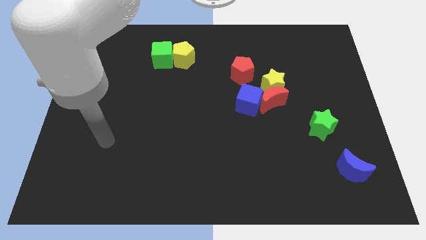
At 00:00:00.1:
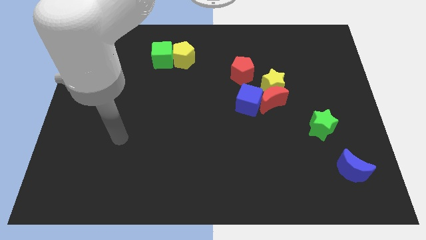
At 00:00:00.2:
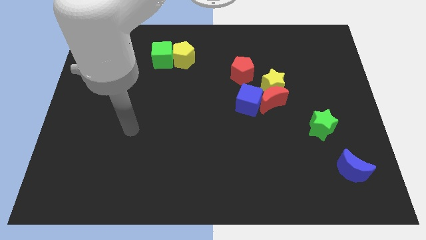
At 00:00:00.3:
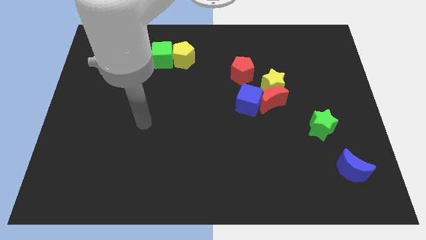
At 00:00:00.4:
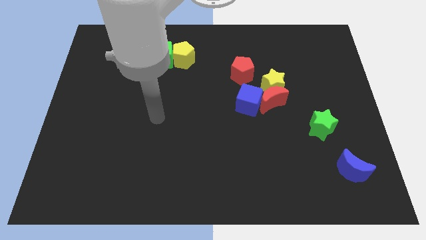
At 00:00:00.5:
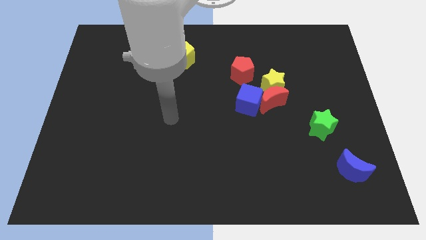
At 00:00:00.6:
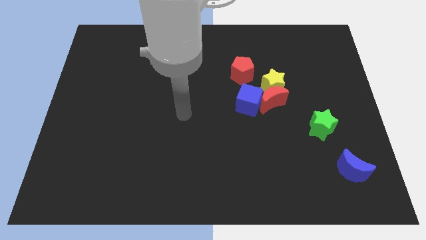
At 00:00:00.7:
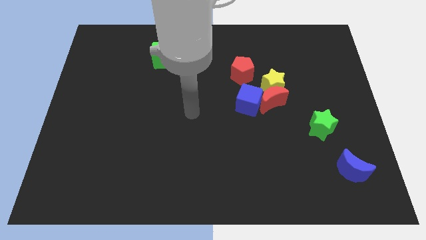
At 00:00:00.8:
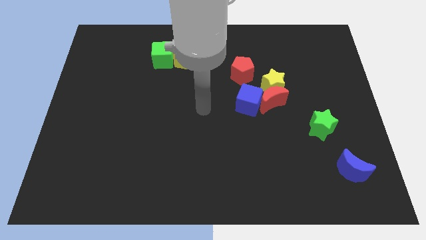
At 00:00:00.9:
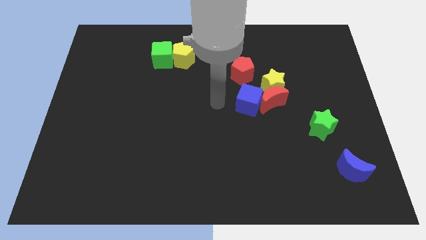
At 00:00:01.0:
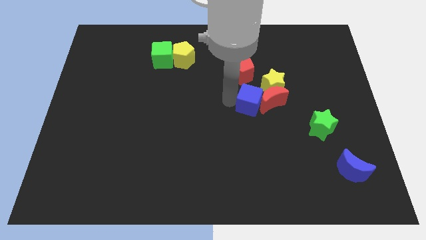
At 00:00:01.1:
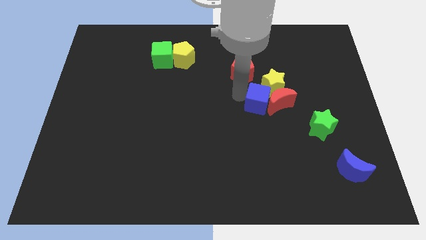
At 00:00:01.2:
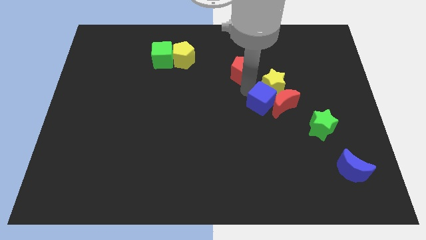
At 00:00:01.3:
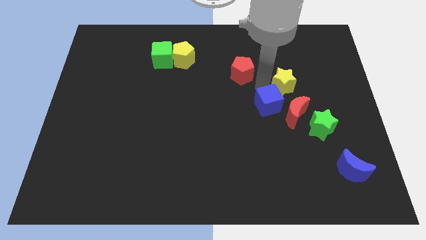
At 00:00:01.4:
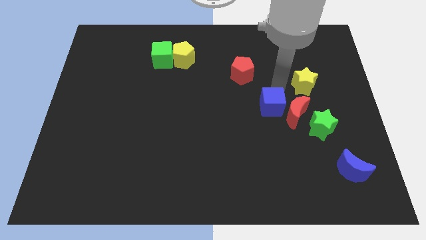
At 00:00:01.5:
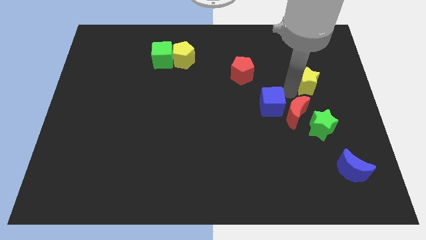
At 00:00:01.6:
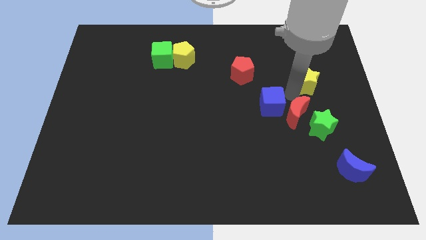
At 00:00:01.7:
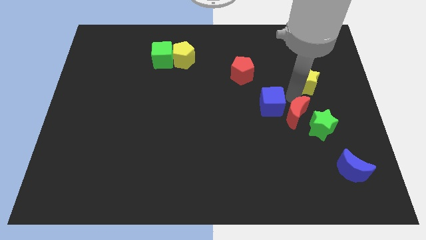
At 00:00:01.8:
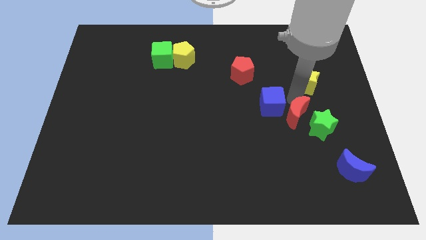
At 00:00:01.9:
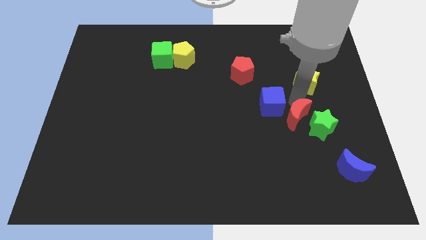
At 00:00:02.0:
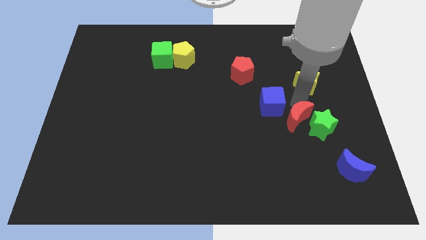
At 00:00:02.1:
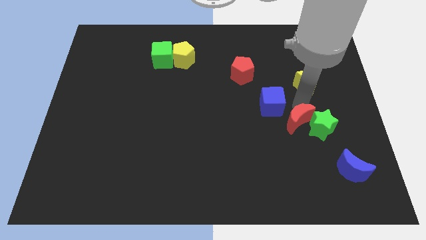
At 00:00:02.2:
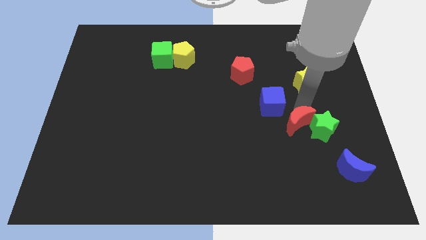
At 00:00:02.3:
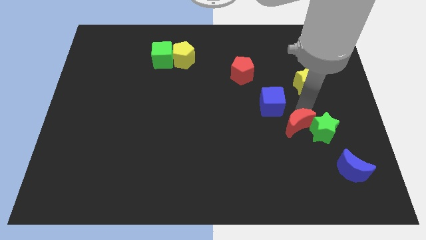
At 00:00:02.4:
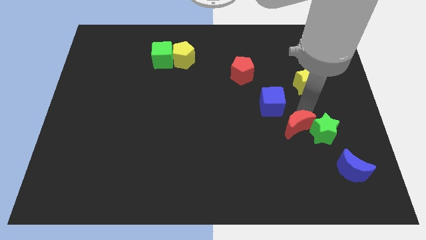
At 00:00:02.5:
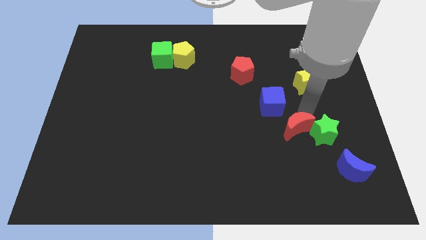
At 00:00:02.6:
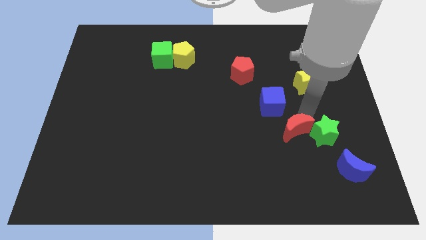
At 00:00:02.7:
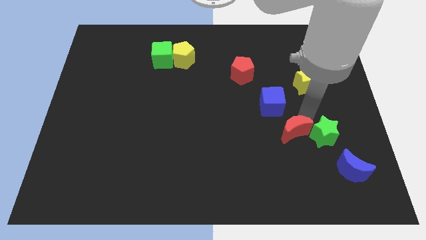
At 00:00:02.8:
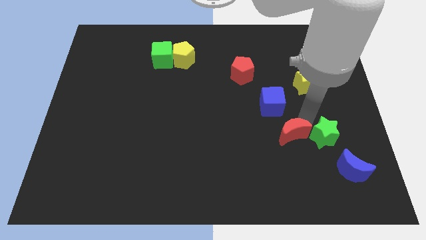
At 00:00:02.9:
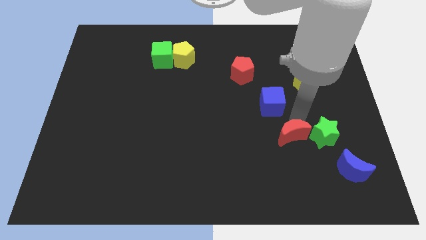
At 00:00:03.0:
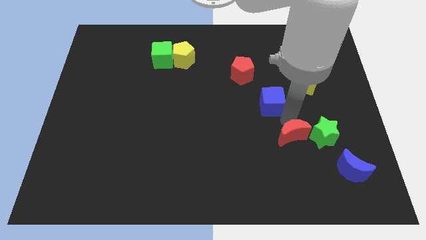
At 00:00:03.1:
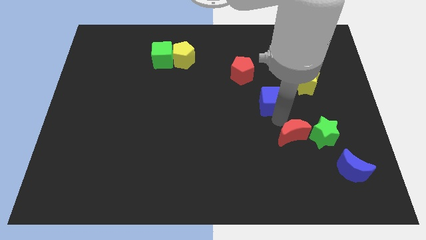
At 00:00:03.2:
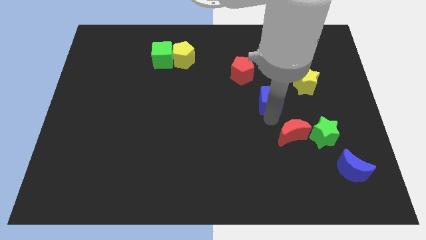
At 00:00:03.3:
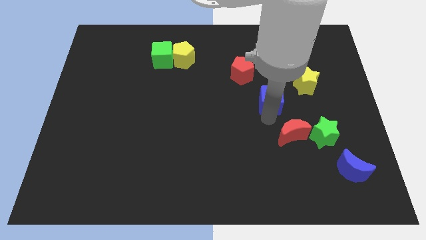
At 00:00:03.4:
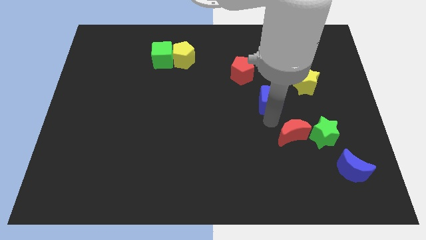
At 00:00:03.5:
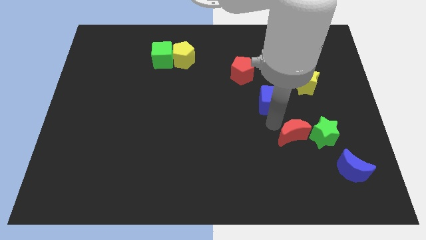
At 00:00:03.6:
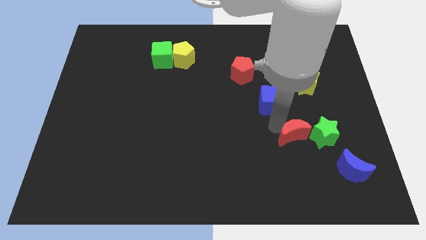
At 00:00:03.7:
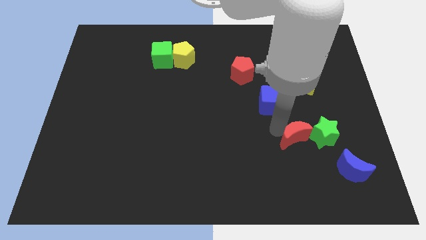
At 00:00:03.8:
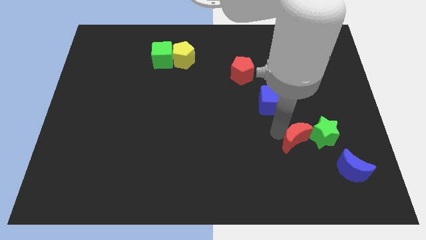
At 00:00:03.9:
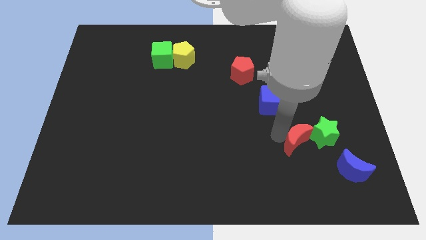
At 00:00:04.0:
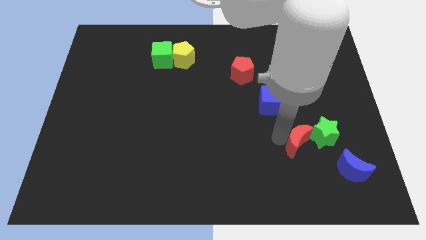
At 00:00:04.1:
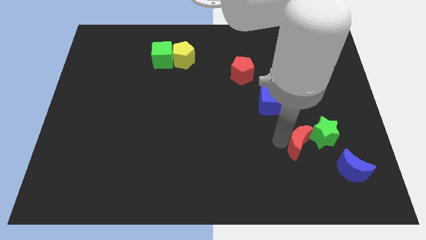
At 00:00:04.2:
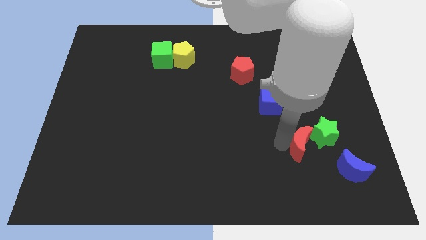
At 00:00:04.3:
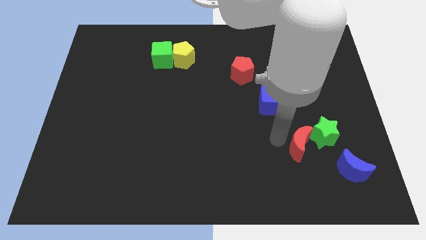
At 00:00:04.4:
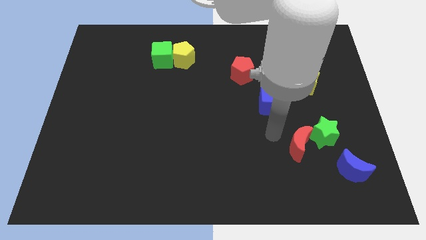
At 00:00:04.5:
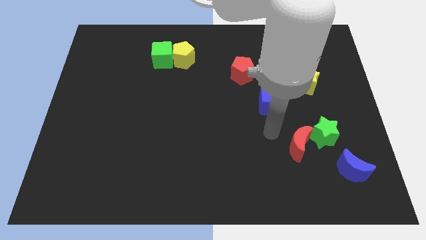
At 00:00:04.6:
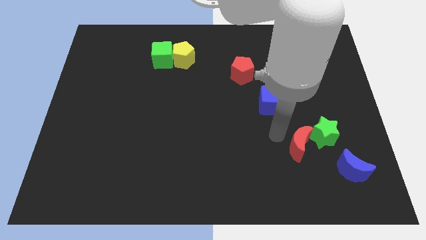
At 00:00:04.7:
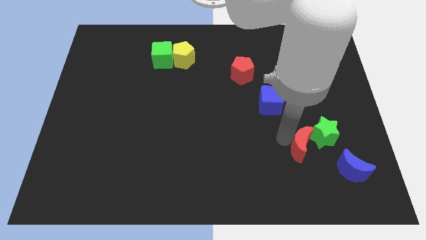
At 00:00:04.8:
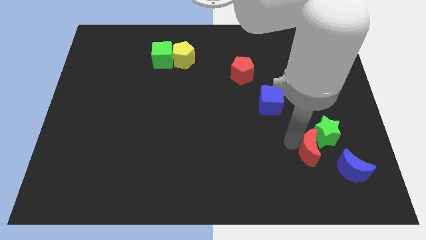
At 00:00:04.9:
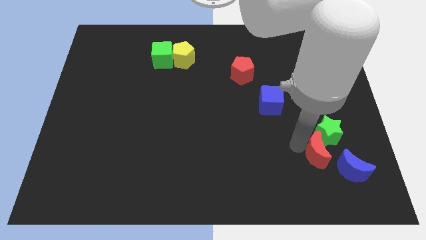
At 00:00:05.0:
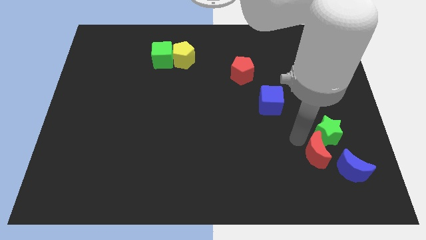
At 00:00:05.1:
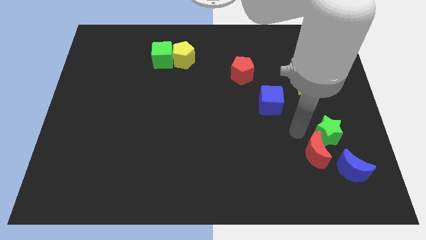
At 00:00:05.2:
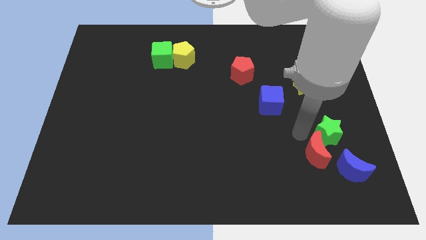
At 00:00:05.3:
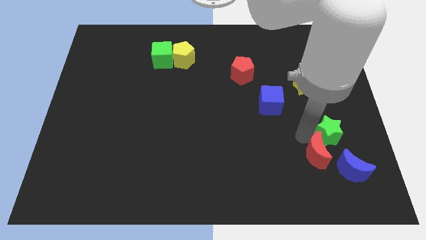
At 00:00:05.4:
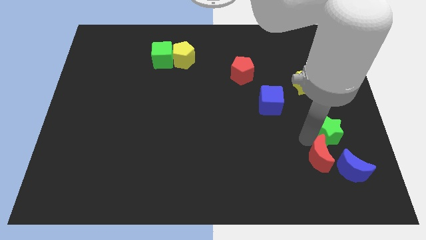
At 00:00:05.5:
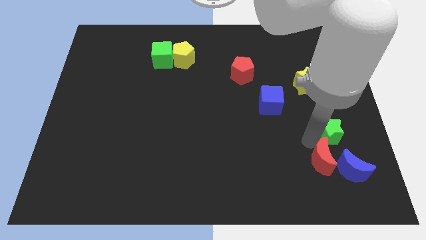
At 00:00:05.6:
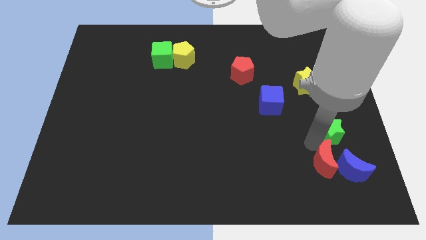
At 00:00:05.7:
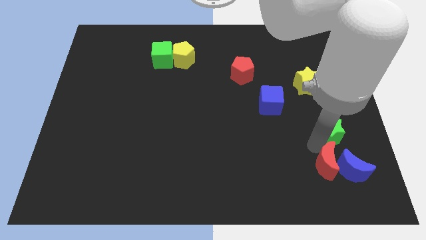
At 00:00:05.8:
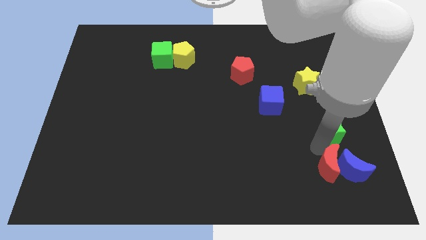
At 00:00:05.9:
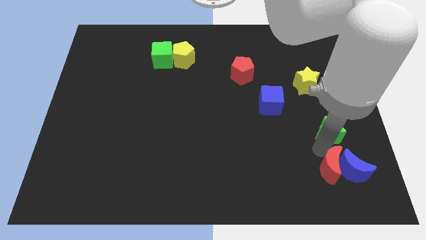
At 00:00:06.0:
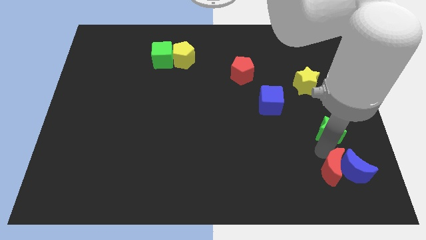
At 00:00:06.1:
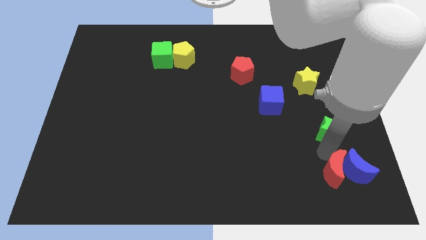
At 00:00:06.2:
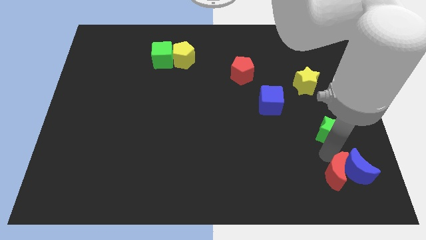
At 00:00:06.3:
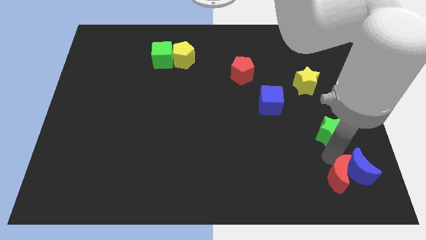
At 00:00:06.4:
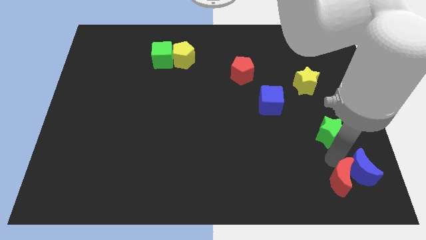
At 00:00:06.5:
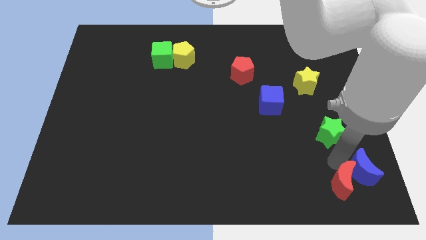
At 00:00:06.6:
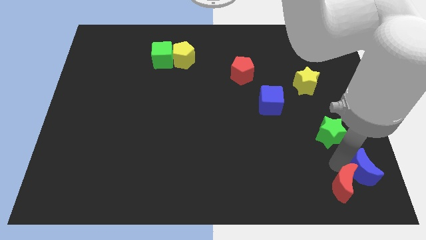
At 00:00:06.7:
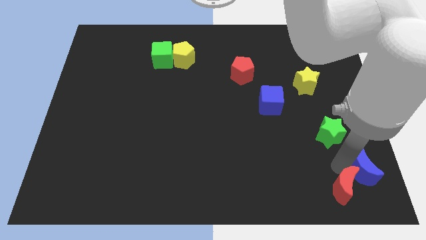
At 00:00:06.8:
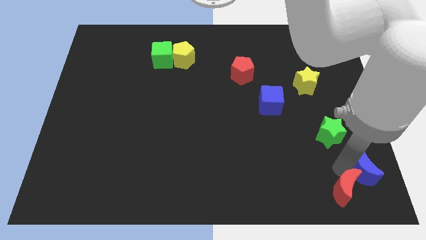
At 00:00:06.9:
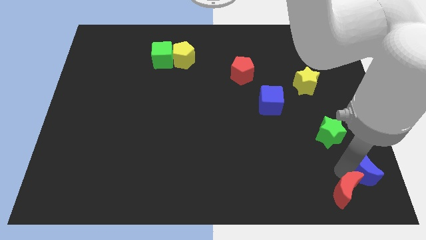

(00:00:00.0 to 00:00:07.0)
put the red moon to the bottom right corner
